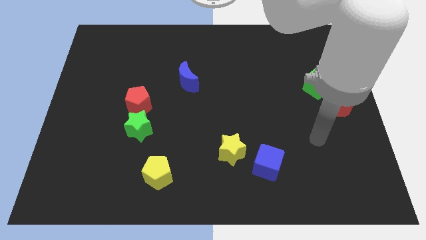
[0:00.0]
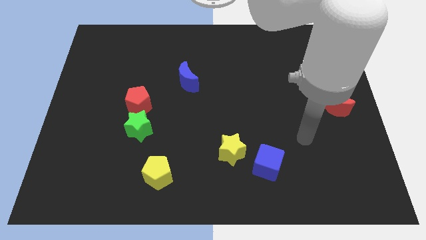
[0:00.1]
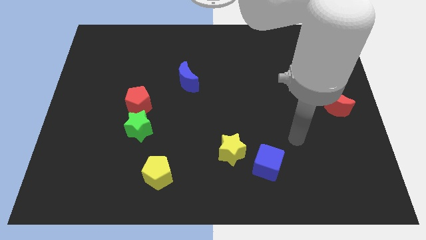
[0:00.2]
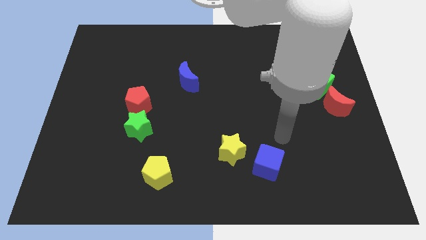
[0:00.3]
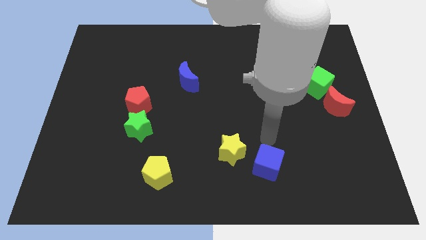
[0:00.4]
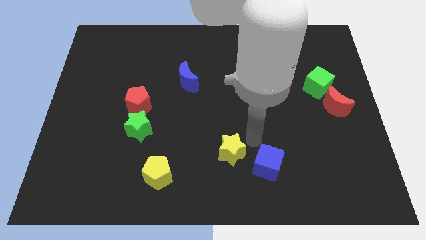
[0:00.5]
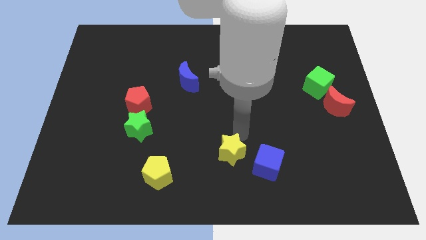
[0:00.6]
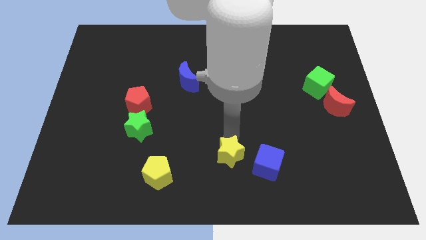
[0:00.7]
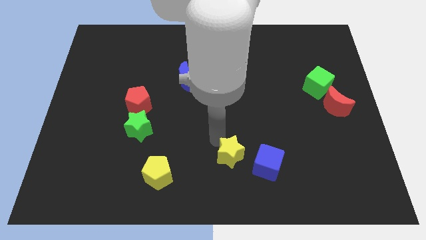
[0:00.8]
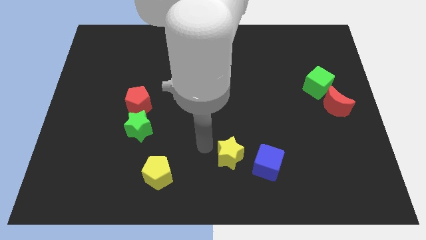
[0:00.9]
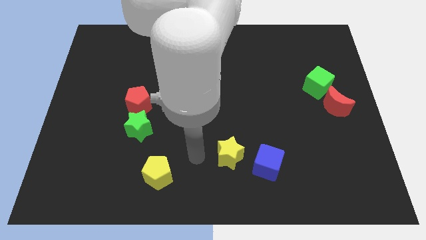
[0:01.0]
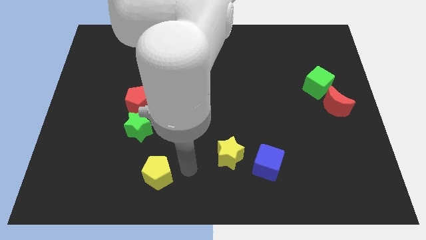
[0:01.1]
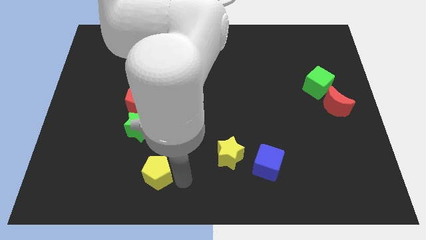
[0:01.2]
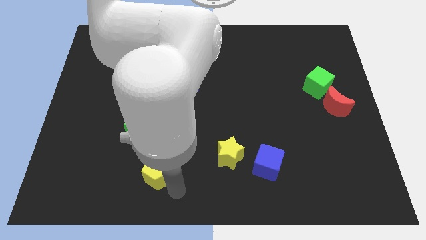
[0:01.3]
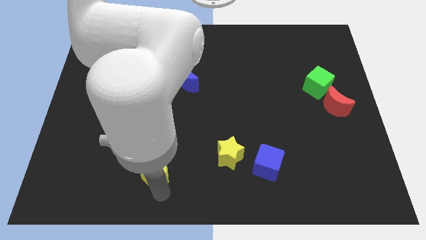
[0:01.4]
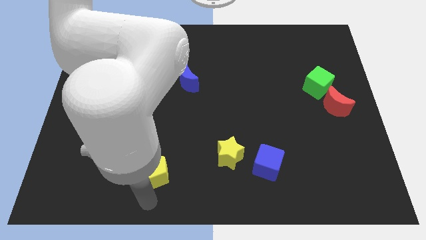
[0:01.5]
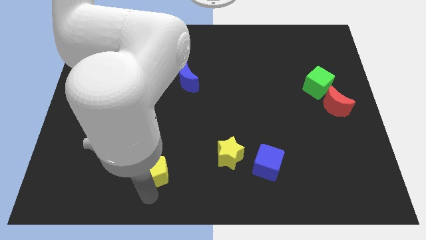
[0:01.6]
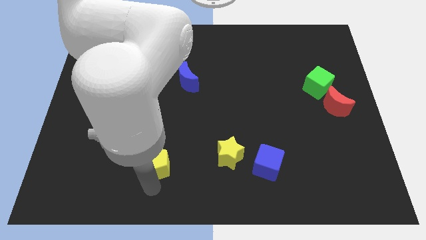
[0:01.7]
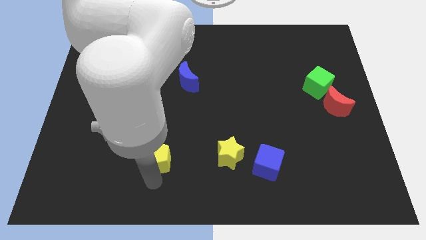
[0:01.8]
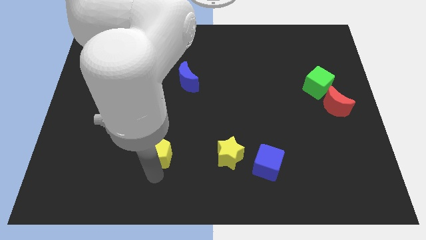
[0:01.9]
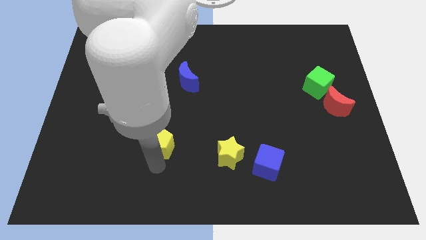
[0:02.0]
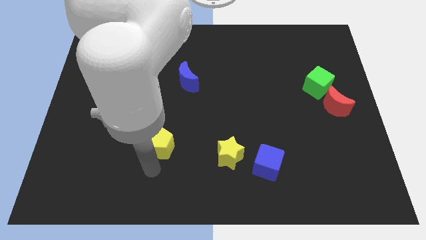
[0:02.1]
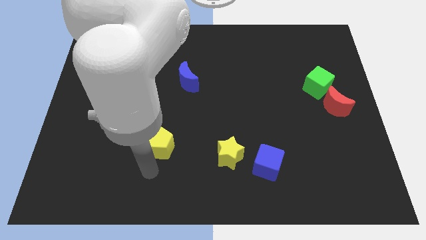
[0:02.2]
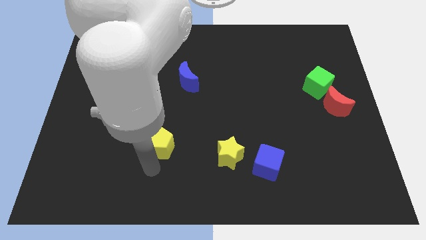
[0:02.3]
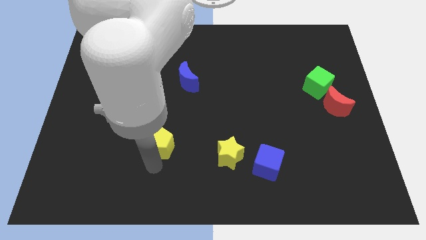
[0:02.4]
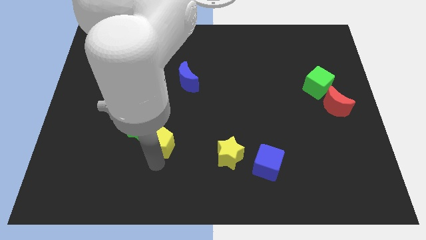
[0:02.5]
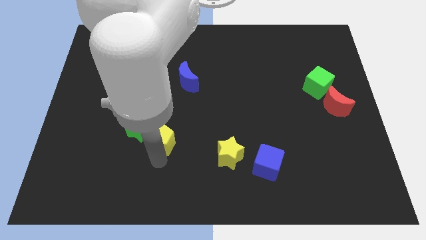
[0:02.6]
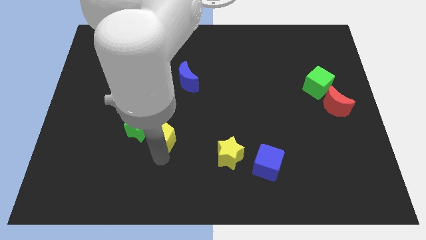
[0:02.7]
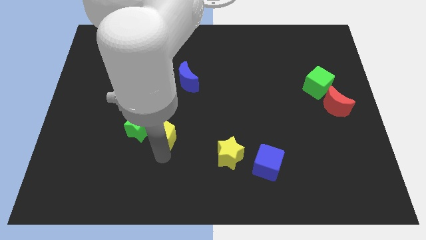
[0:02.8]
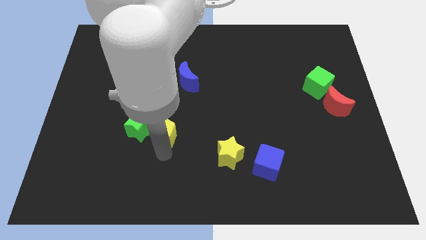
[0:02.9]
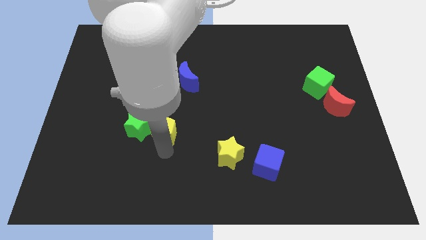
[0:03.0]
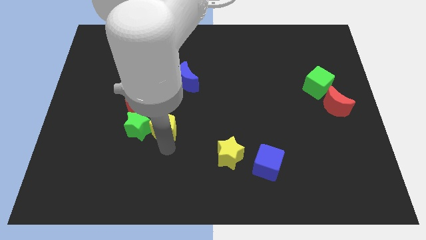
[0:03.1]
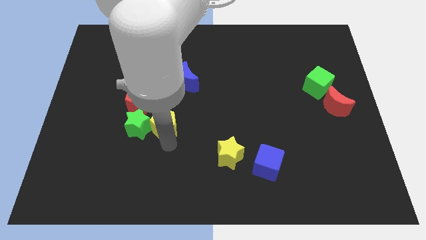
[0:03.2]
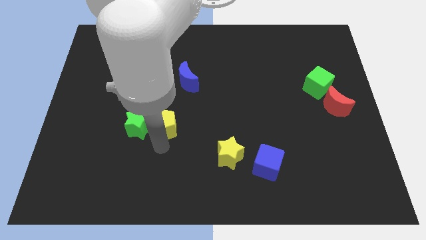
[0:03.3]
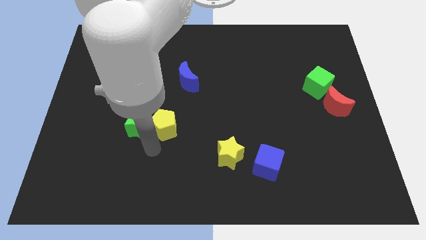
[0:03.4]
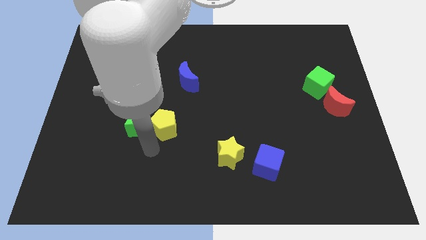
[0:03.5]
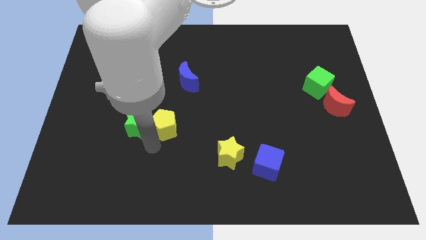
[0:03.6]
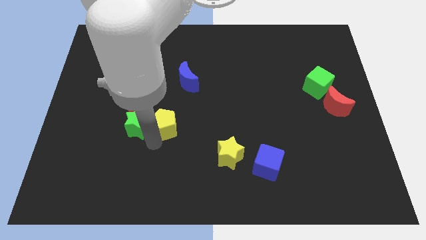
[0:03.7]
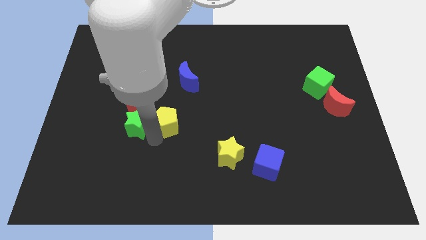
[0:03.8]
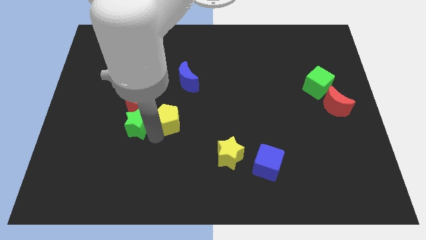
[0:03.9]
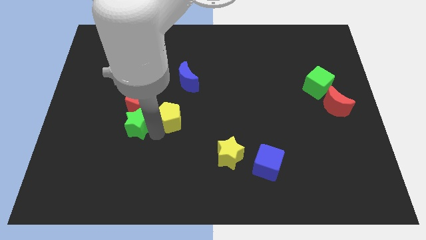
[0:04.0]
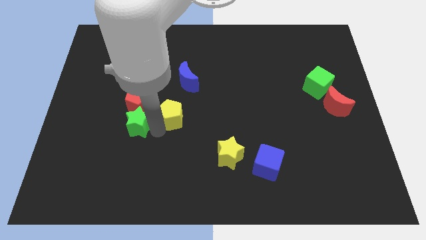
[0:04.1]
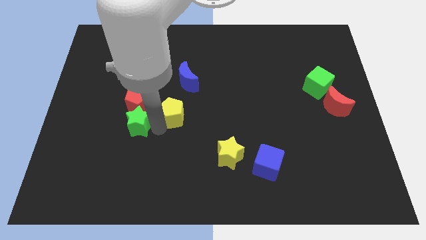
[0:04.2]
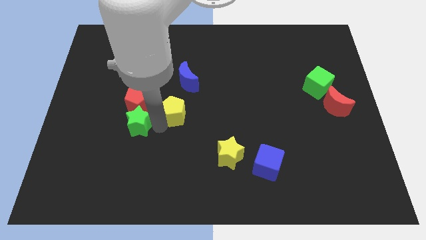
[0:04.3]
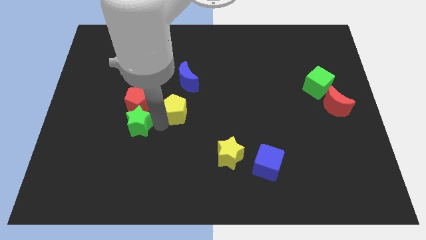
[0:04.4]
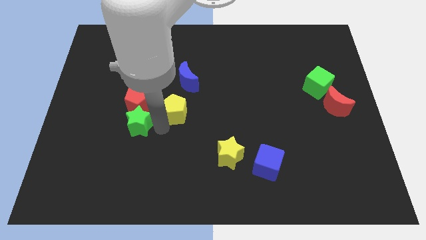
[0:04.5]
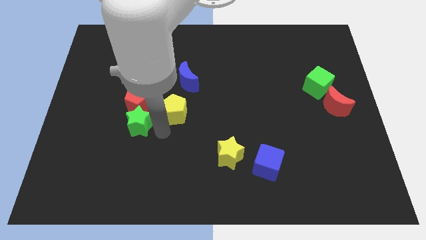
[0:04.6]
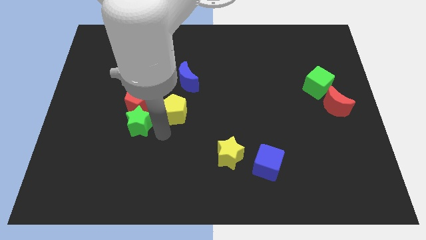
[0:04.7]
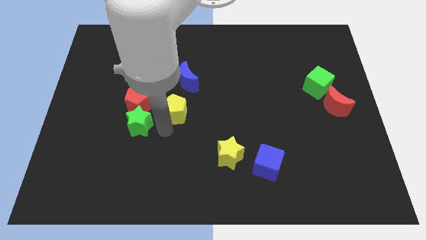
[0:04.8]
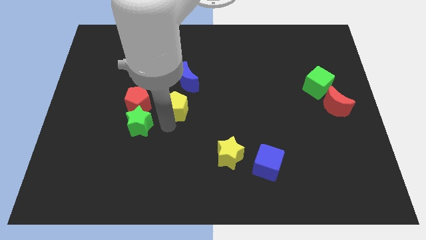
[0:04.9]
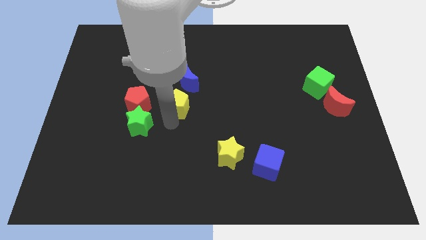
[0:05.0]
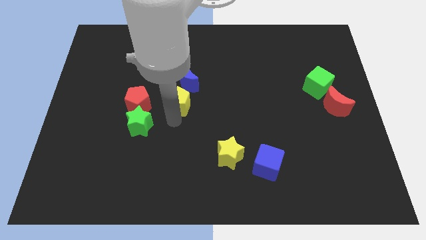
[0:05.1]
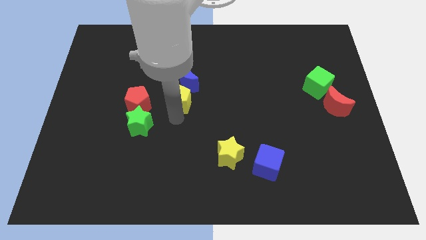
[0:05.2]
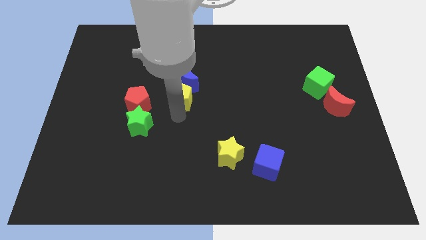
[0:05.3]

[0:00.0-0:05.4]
put the yellow pentagon towards the blue moon
